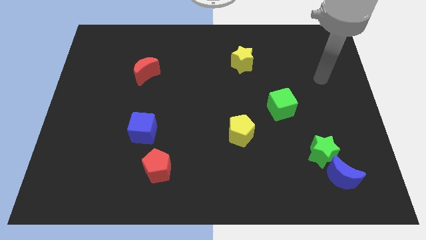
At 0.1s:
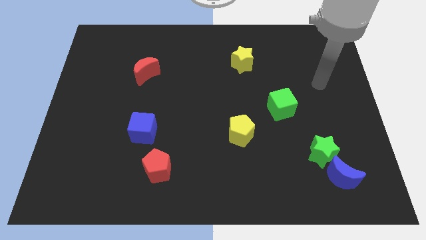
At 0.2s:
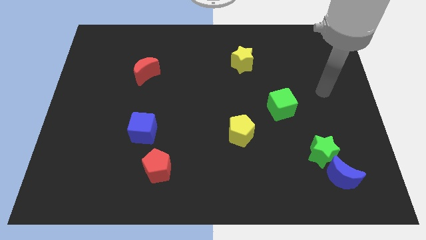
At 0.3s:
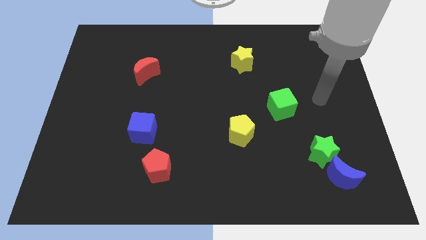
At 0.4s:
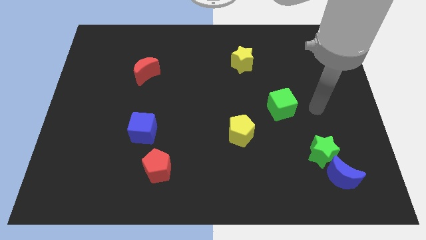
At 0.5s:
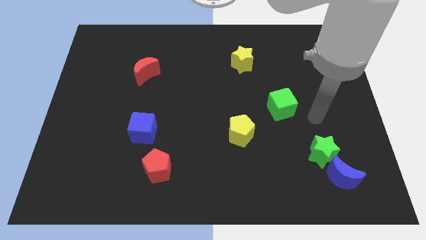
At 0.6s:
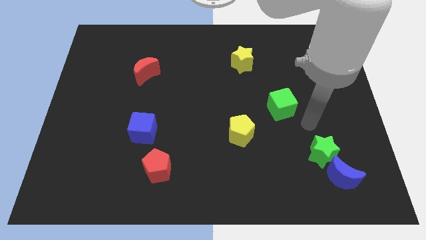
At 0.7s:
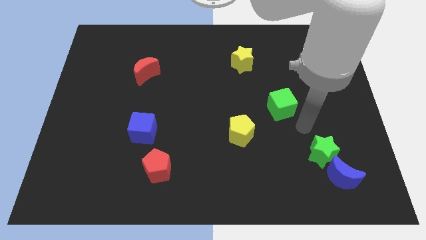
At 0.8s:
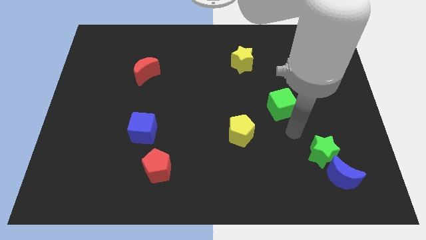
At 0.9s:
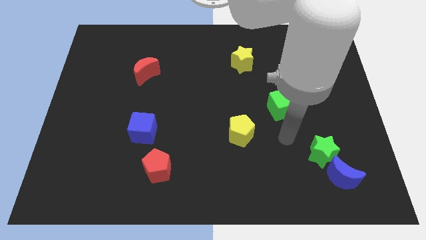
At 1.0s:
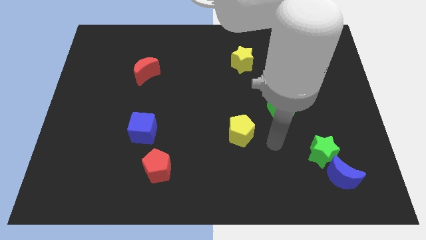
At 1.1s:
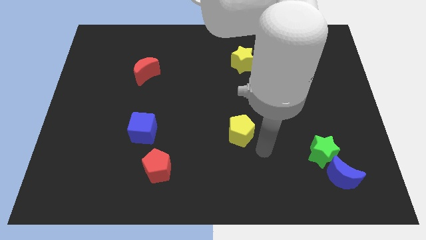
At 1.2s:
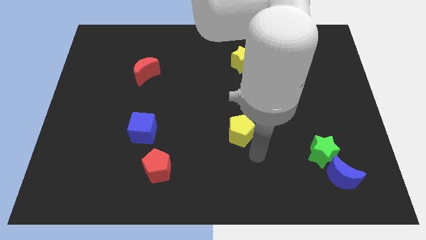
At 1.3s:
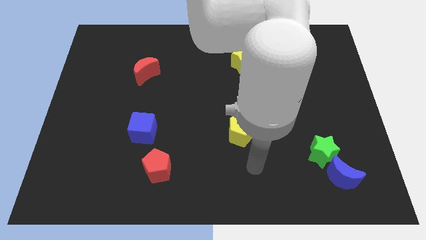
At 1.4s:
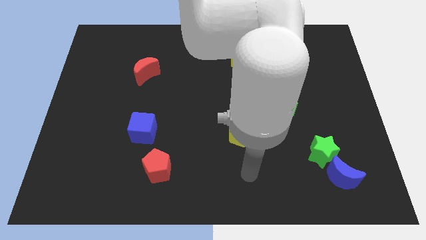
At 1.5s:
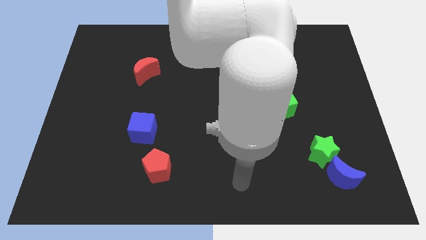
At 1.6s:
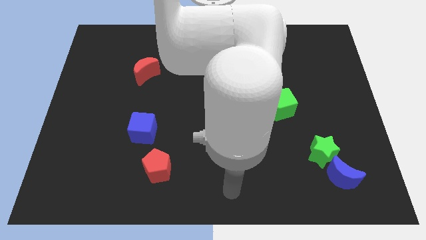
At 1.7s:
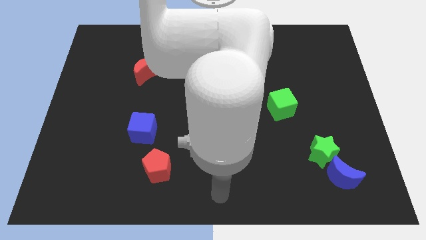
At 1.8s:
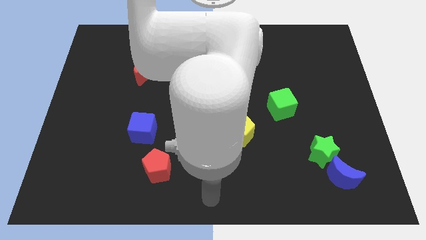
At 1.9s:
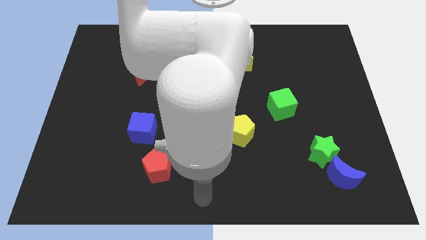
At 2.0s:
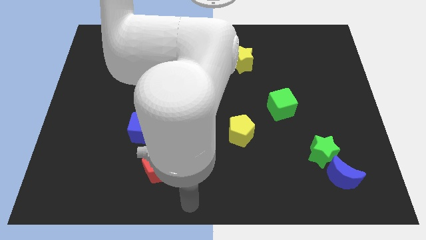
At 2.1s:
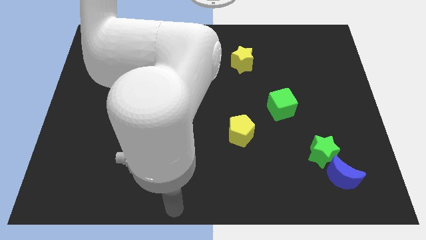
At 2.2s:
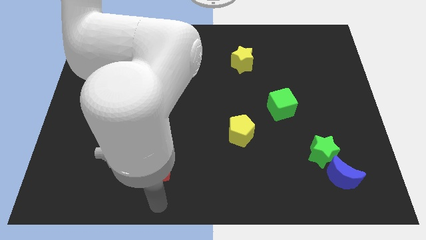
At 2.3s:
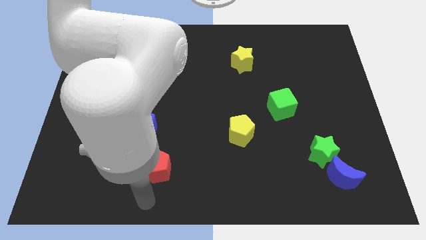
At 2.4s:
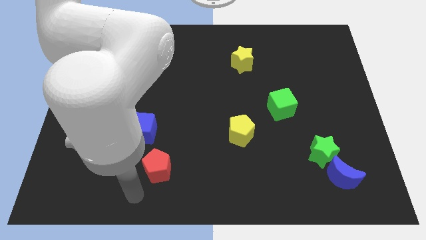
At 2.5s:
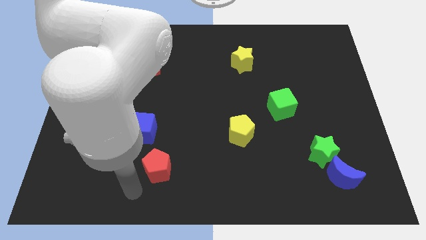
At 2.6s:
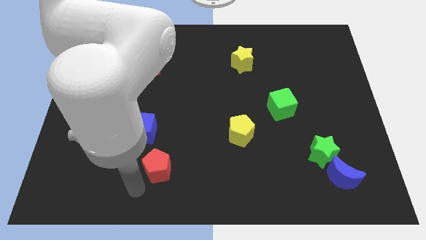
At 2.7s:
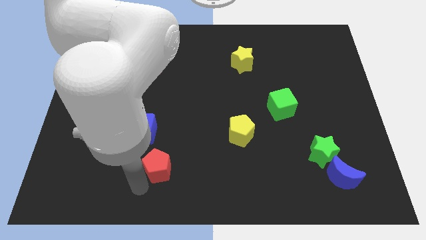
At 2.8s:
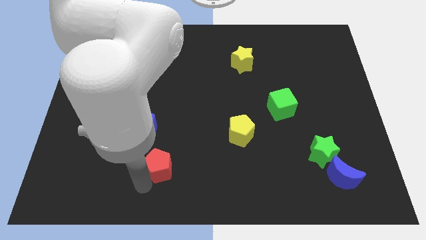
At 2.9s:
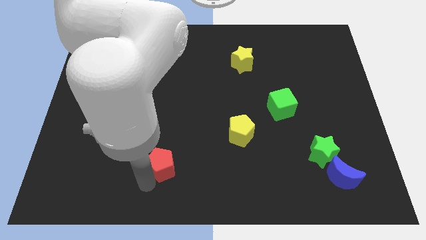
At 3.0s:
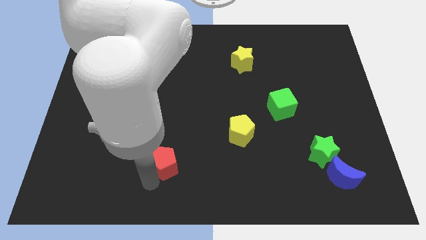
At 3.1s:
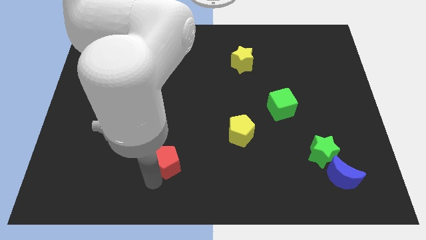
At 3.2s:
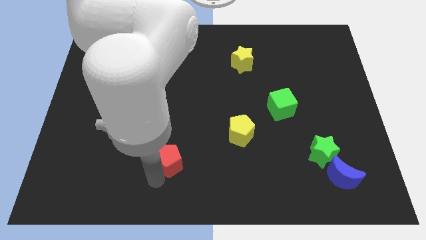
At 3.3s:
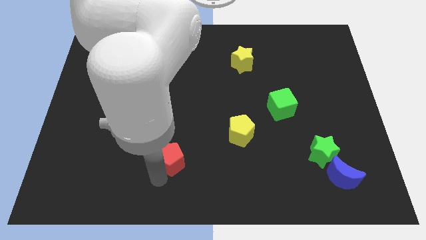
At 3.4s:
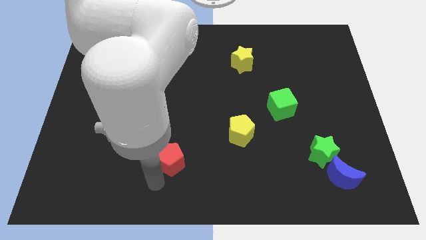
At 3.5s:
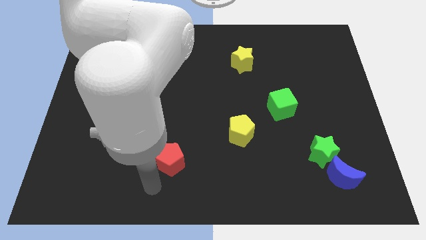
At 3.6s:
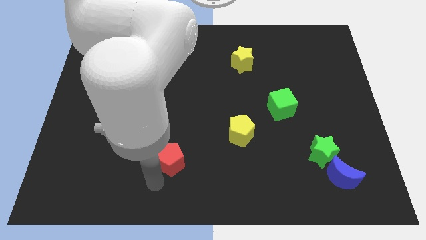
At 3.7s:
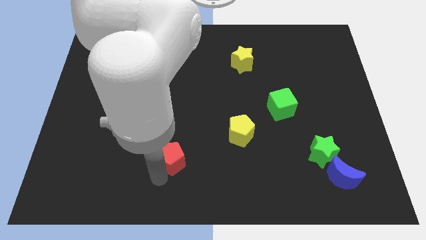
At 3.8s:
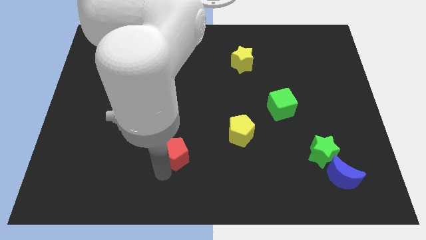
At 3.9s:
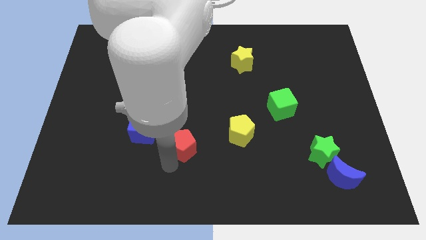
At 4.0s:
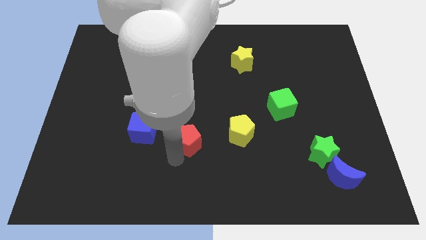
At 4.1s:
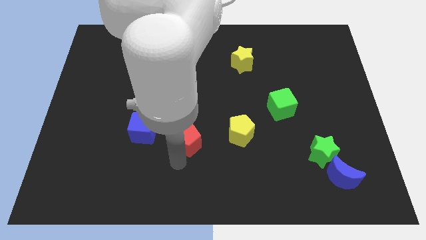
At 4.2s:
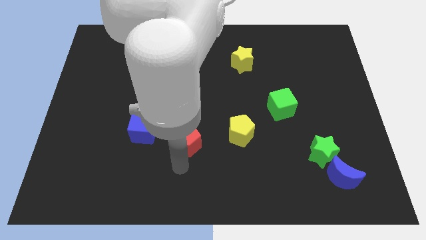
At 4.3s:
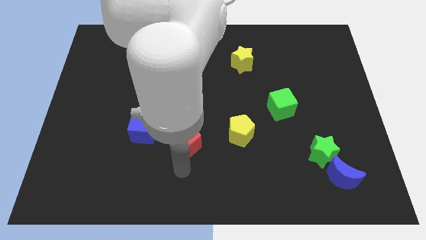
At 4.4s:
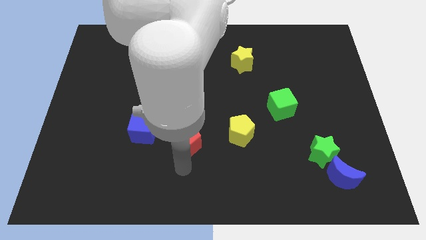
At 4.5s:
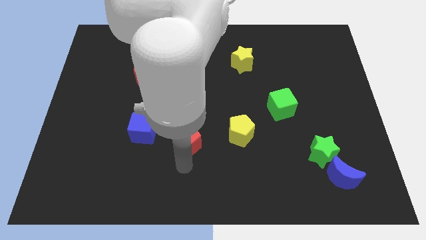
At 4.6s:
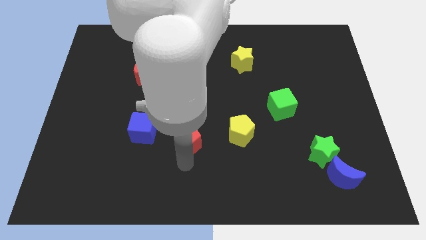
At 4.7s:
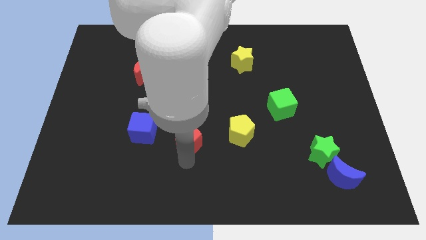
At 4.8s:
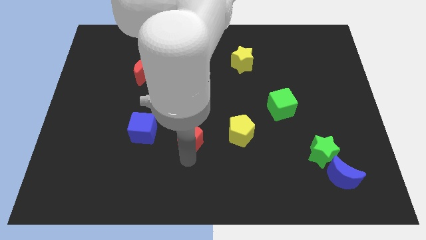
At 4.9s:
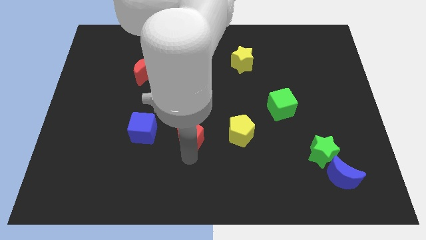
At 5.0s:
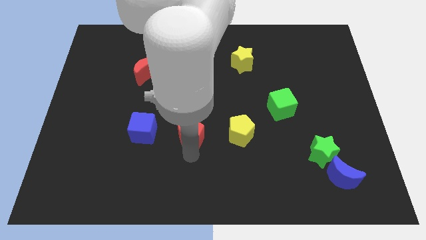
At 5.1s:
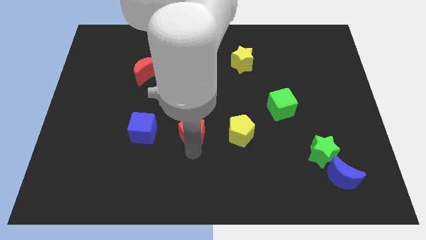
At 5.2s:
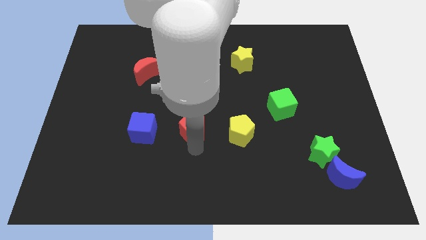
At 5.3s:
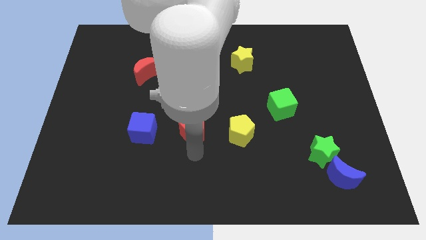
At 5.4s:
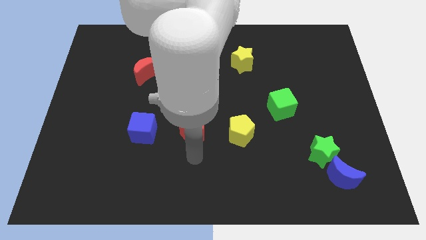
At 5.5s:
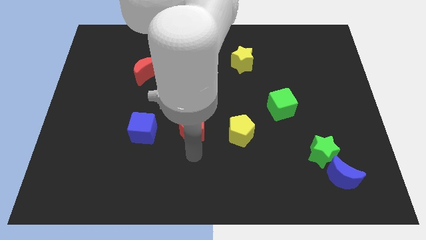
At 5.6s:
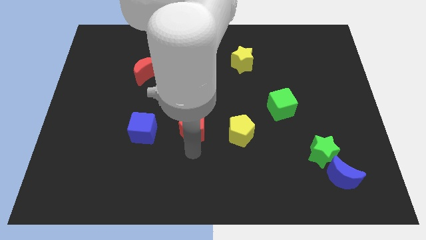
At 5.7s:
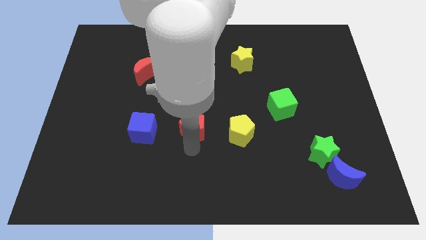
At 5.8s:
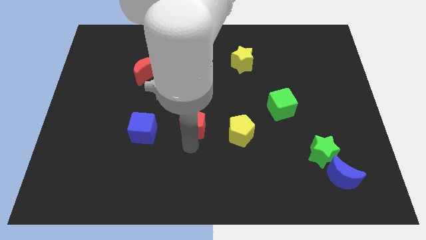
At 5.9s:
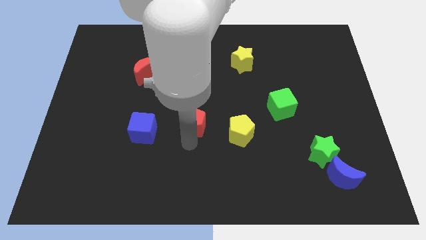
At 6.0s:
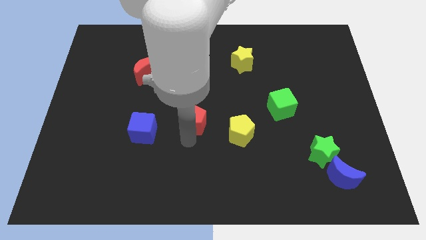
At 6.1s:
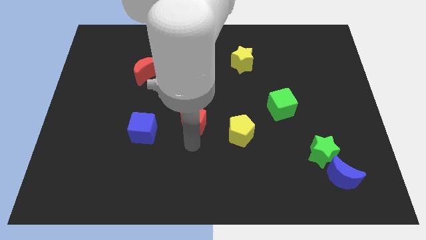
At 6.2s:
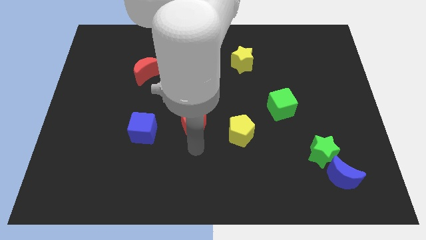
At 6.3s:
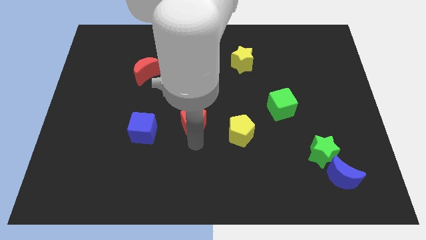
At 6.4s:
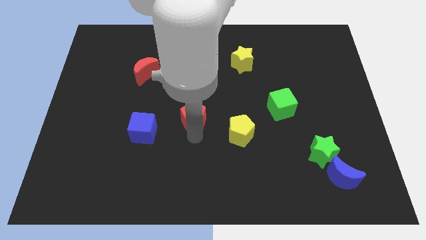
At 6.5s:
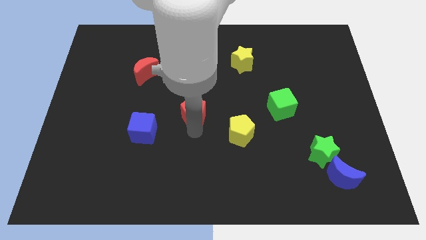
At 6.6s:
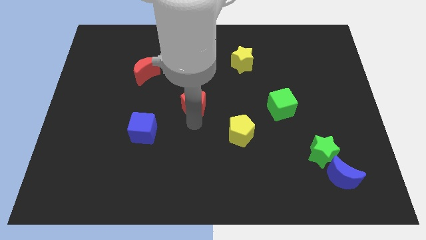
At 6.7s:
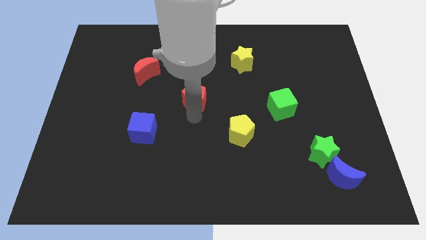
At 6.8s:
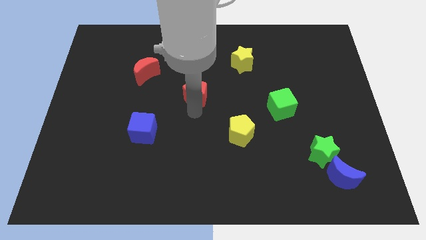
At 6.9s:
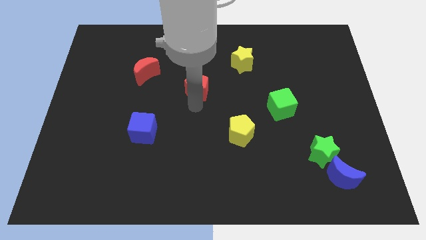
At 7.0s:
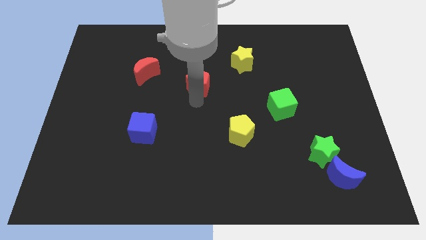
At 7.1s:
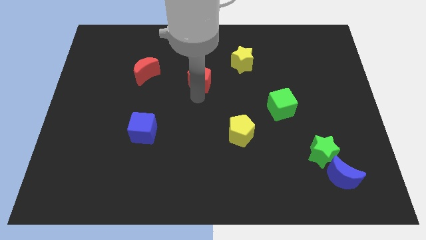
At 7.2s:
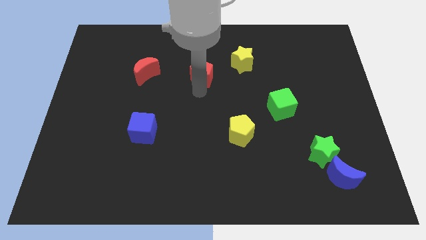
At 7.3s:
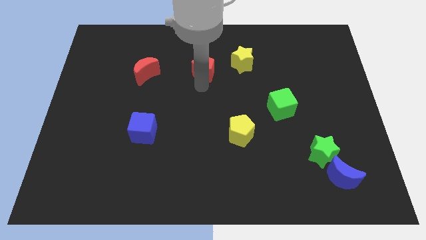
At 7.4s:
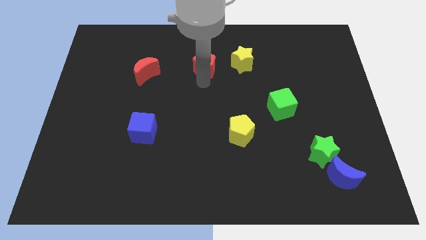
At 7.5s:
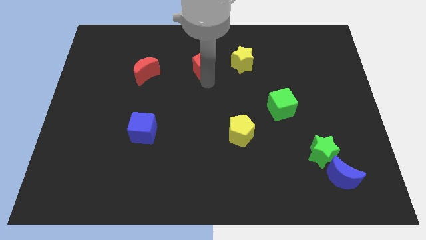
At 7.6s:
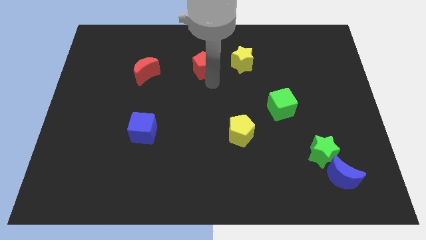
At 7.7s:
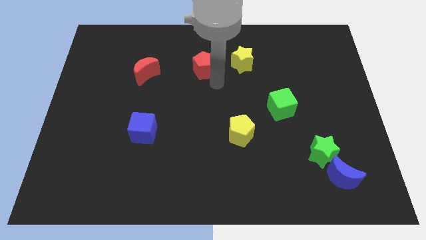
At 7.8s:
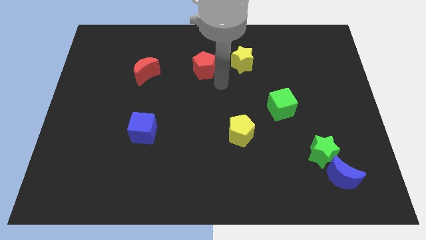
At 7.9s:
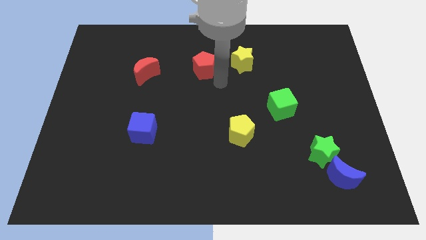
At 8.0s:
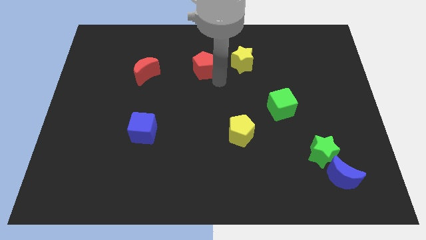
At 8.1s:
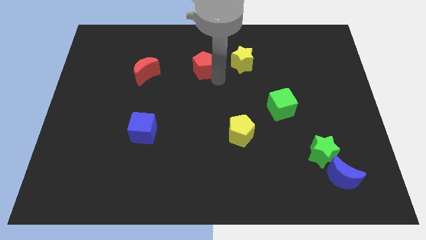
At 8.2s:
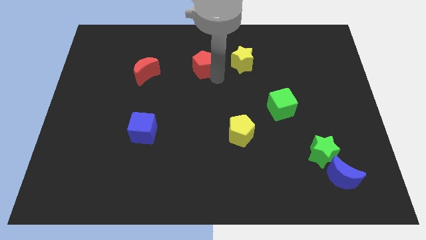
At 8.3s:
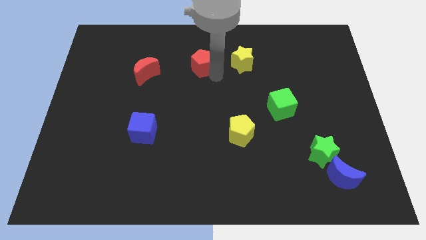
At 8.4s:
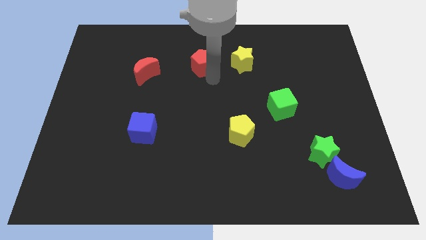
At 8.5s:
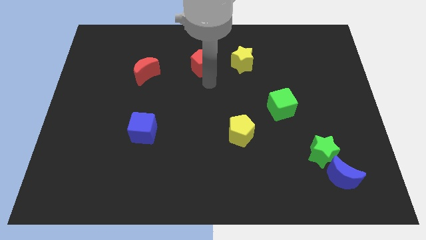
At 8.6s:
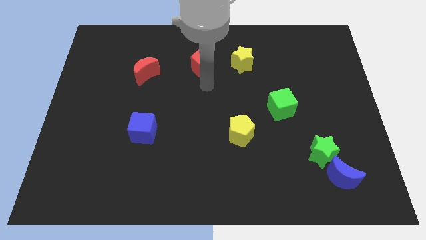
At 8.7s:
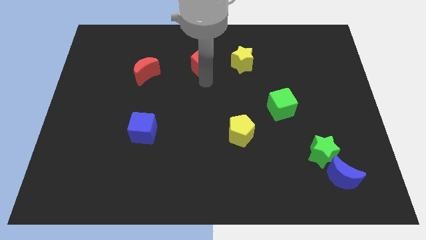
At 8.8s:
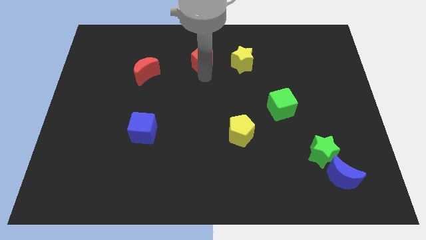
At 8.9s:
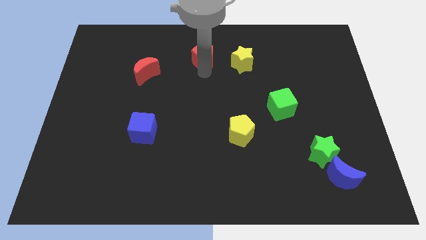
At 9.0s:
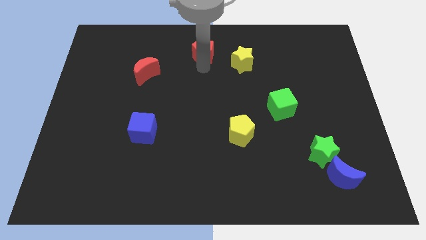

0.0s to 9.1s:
move the red pentagon to the towards your base
